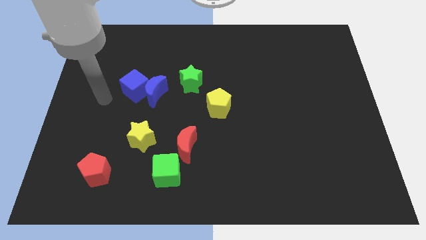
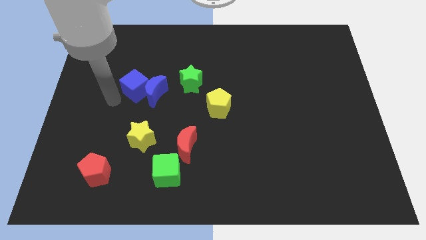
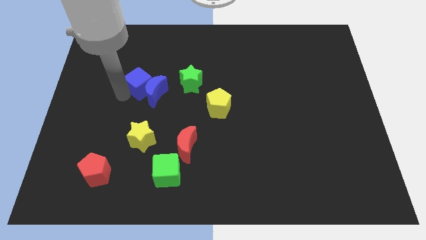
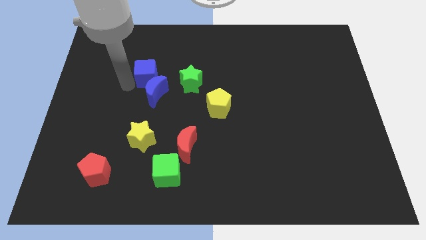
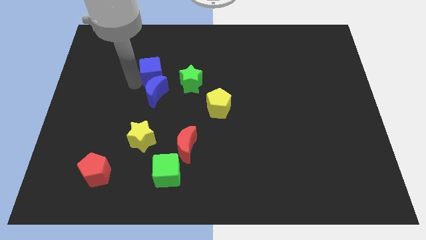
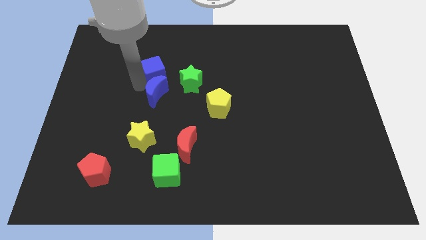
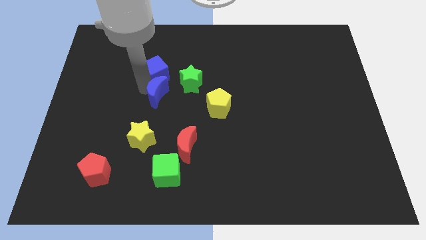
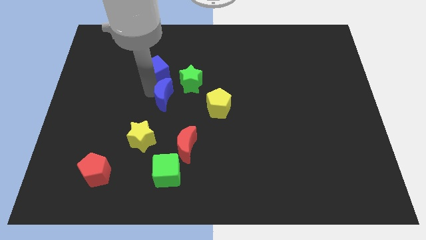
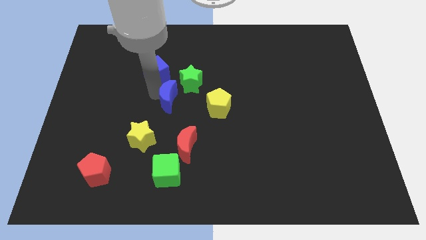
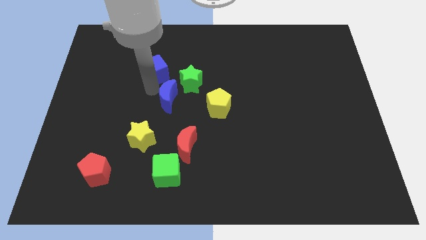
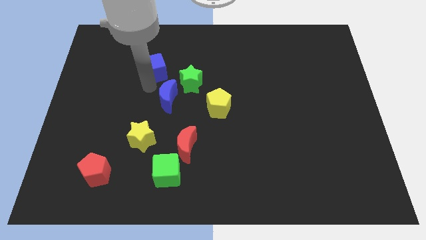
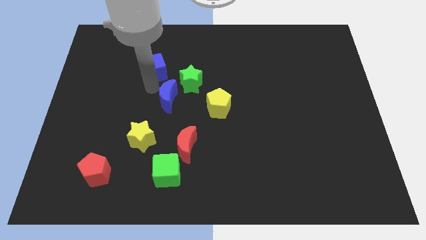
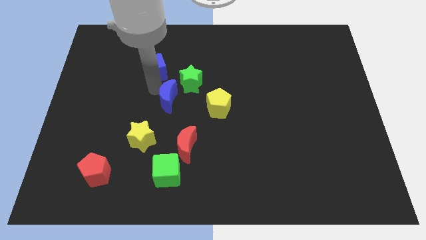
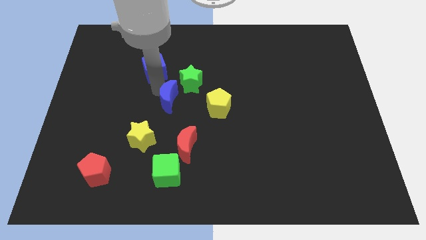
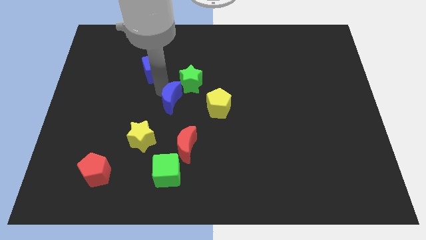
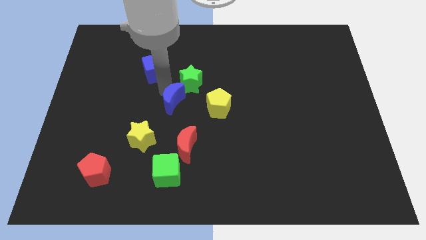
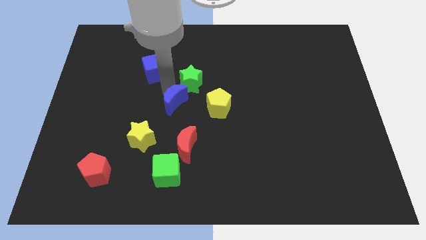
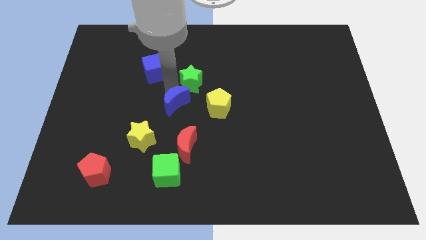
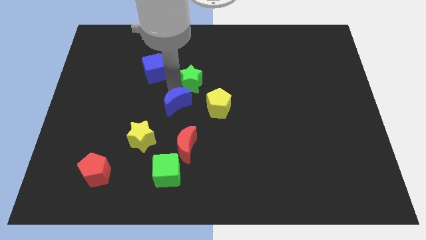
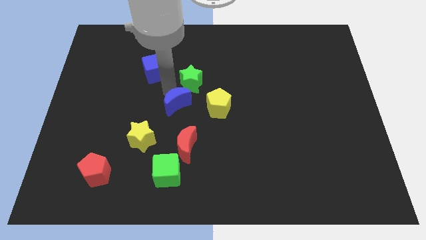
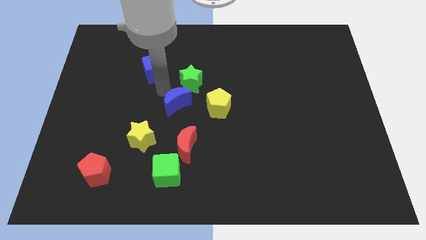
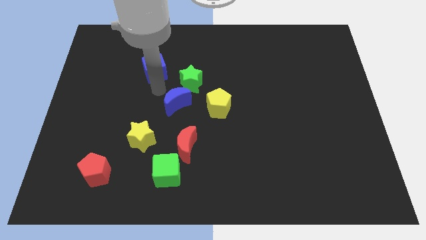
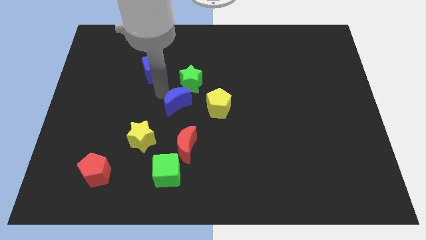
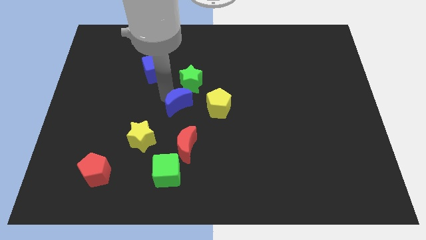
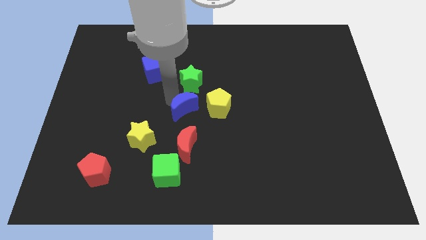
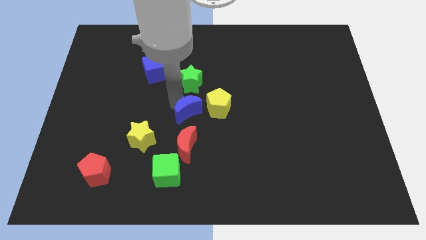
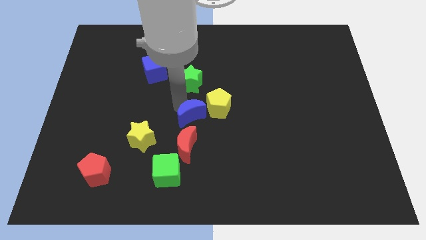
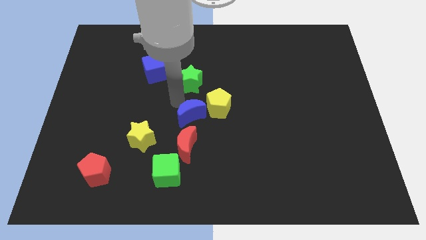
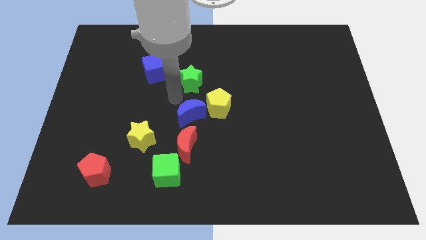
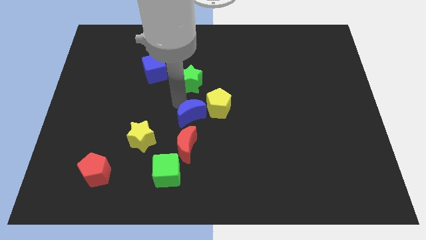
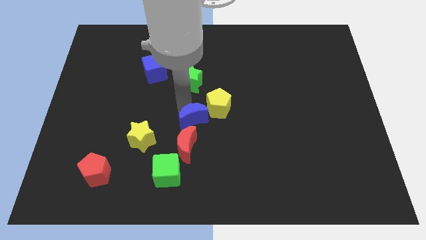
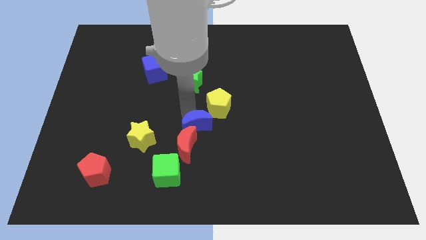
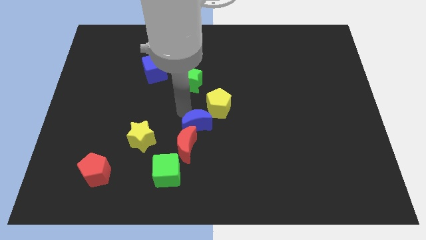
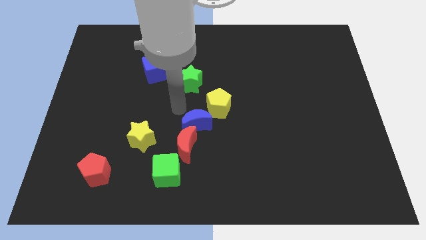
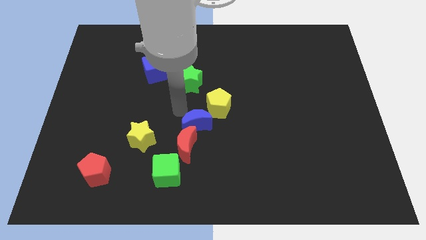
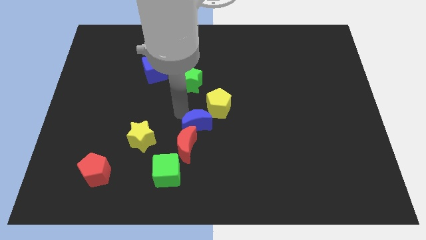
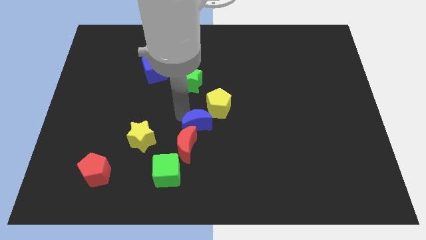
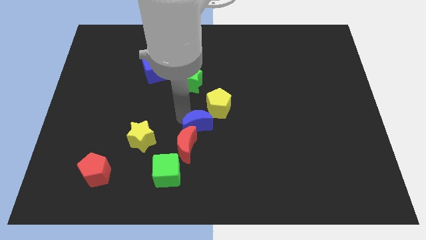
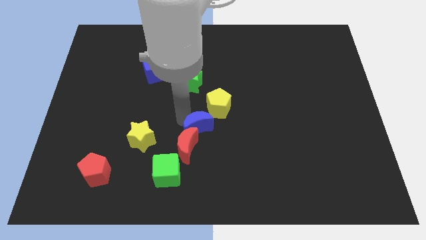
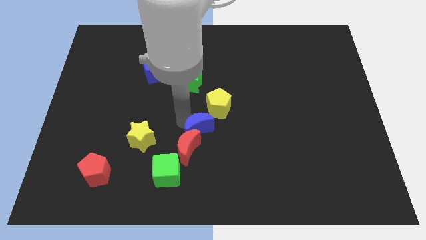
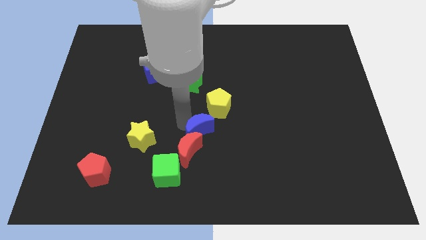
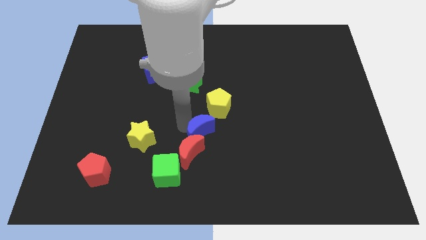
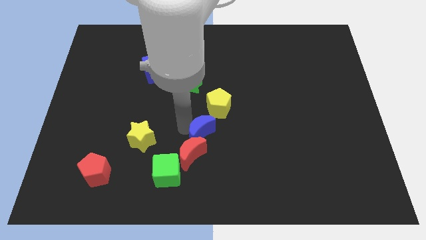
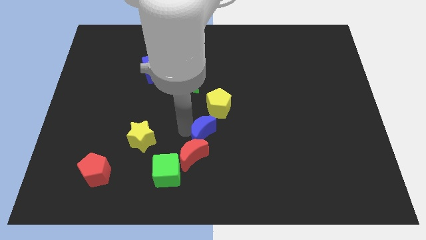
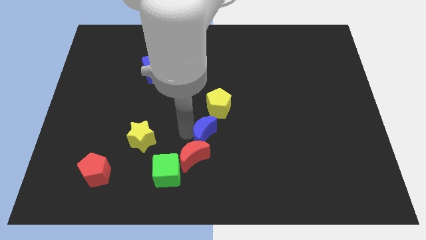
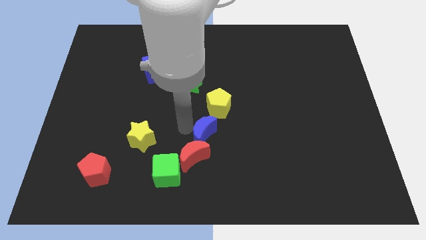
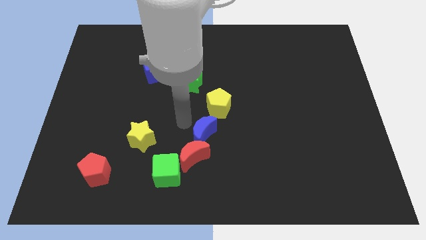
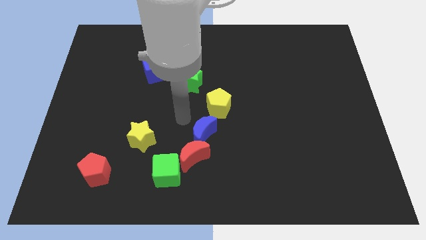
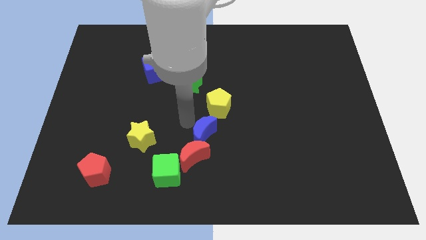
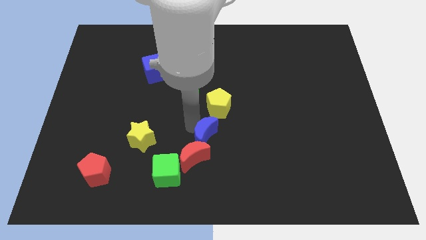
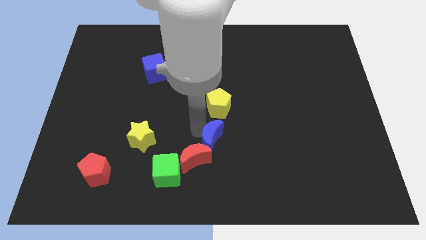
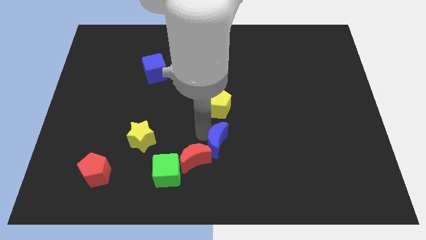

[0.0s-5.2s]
push the blue moon diagonally down and right

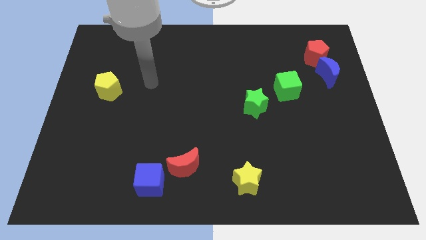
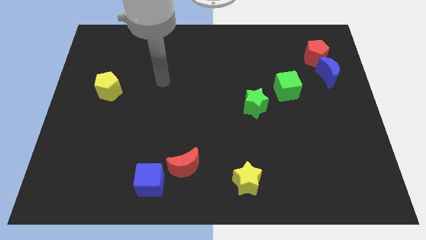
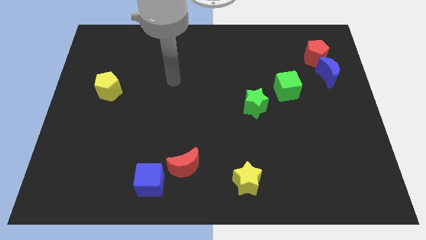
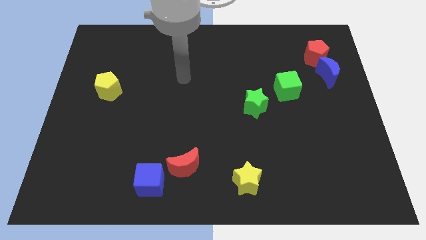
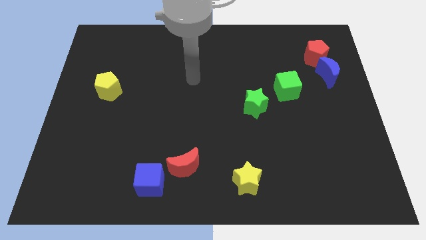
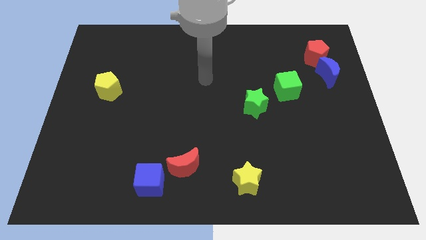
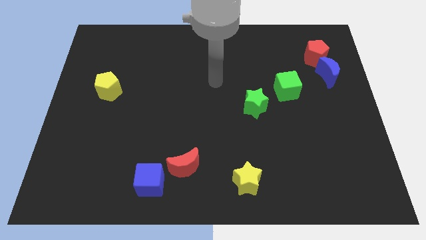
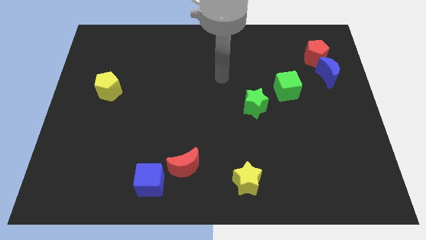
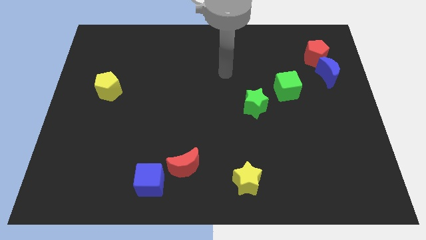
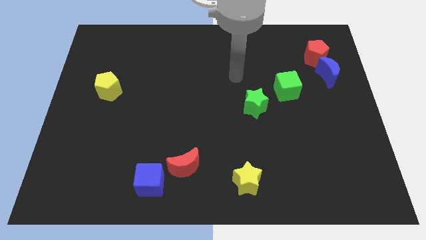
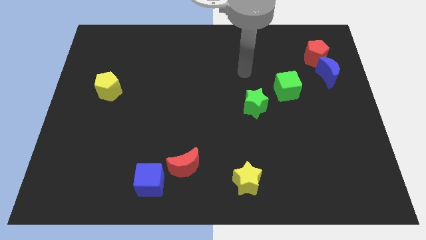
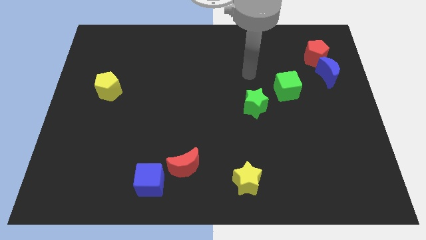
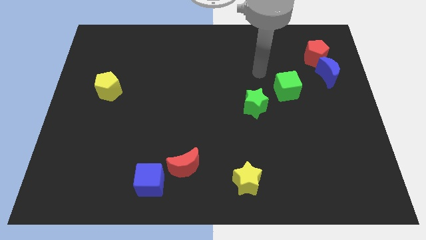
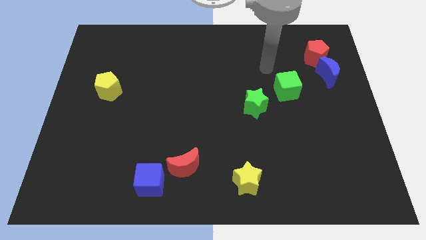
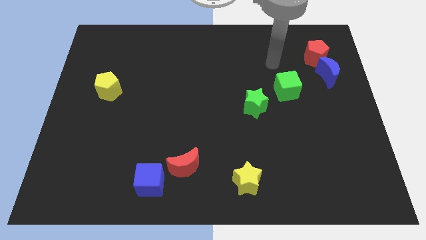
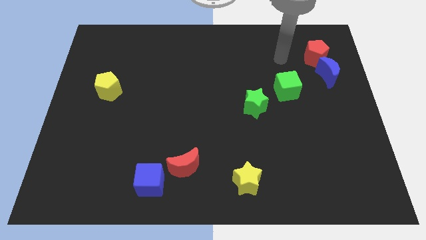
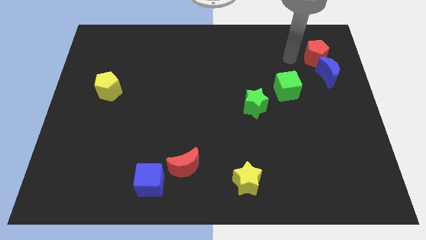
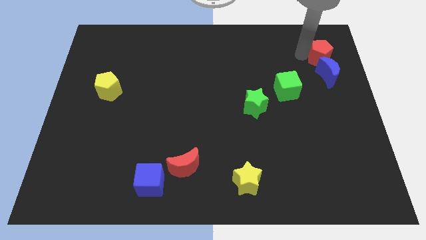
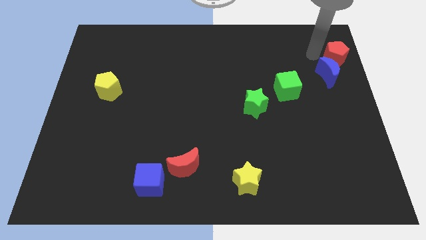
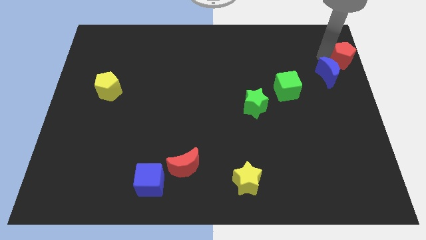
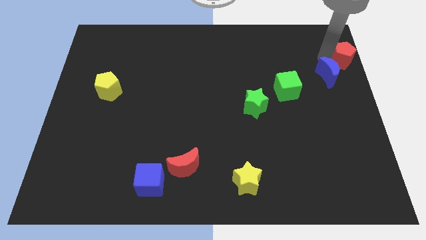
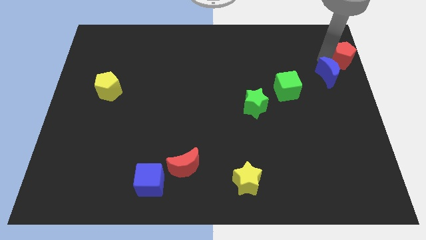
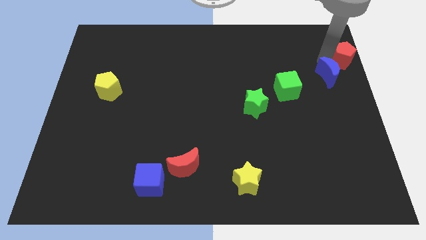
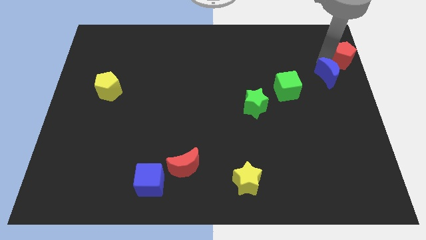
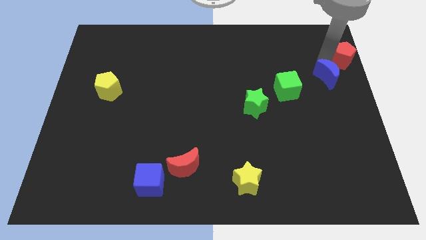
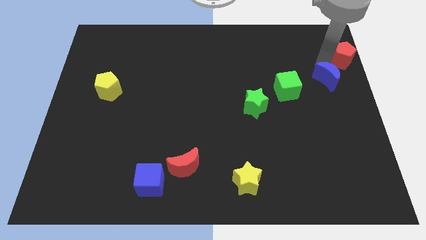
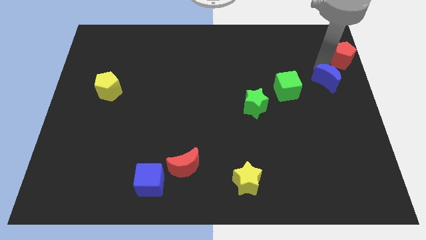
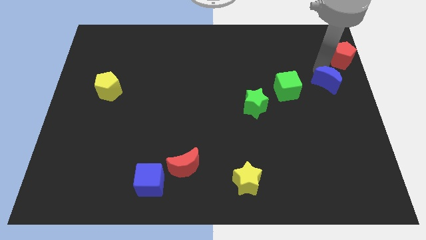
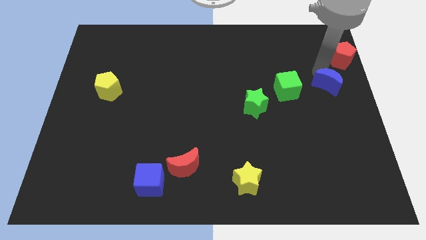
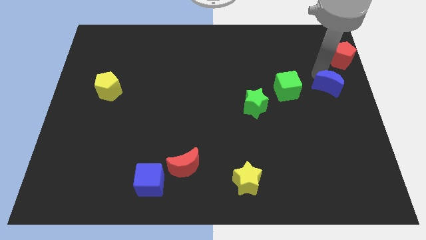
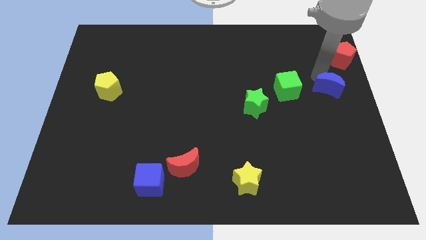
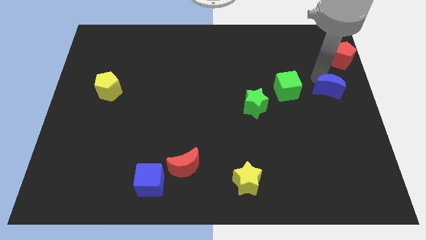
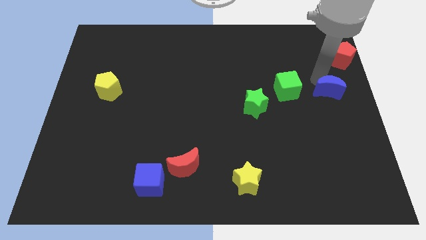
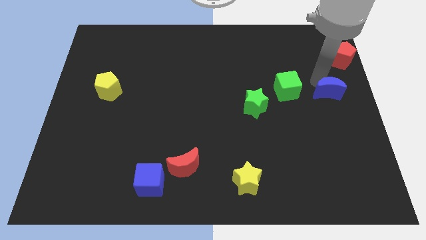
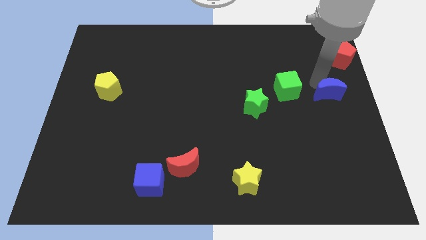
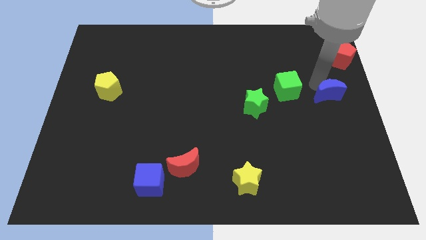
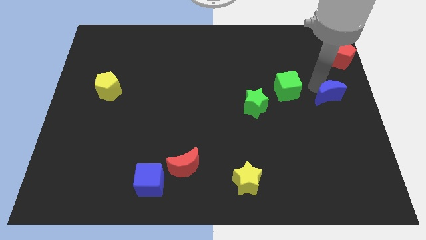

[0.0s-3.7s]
slightly push the blue moon downwards
